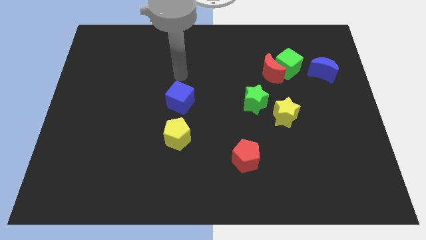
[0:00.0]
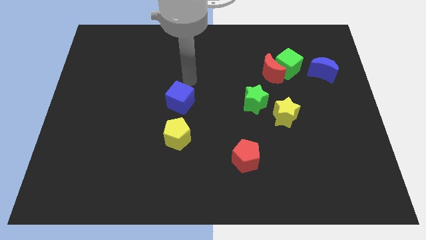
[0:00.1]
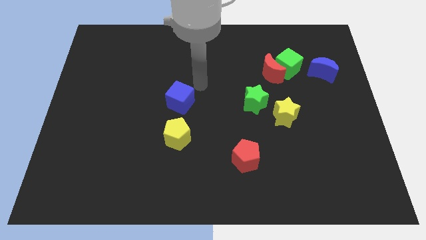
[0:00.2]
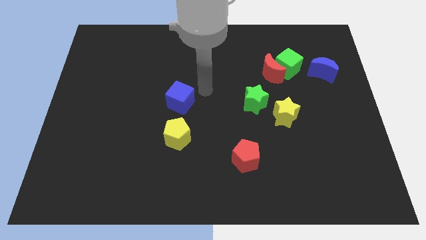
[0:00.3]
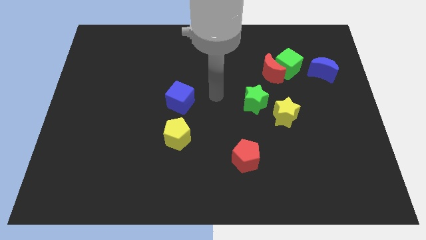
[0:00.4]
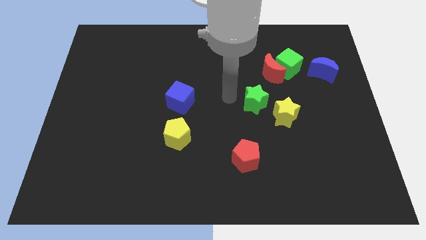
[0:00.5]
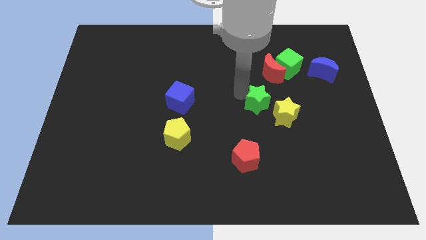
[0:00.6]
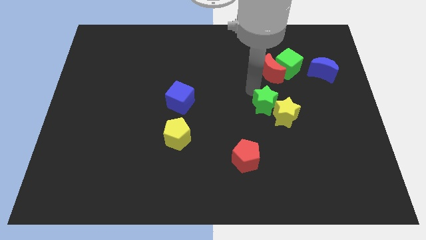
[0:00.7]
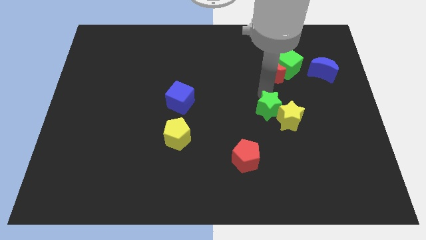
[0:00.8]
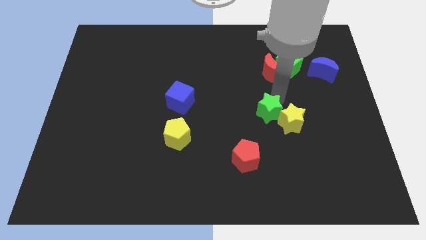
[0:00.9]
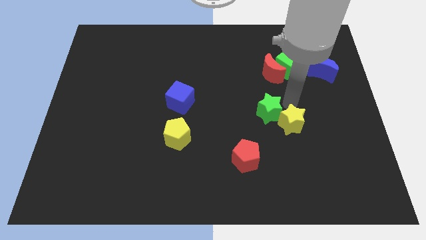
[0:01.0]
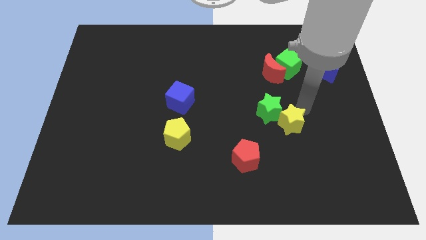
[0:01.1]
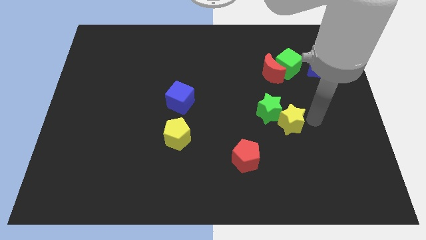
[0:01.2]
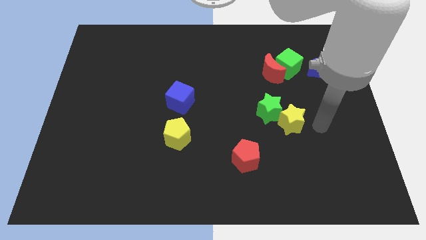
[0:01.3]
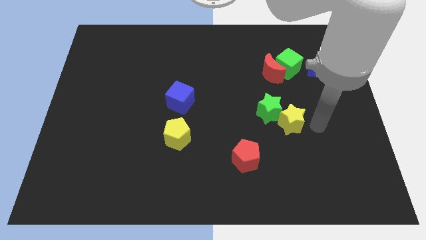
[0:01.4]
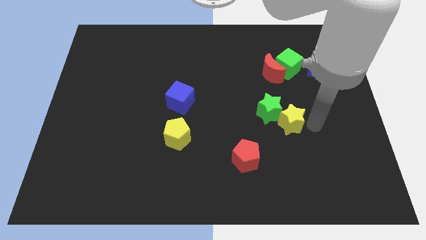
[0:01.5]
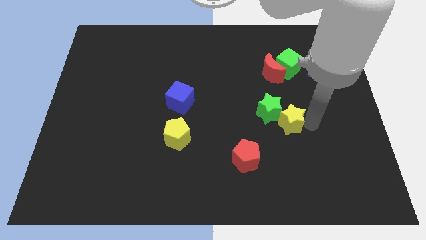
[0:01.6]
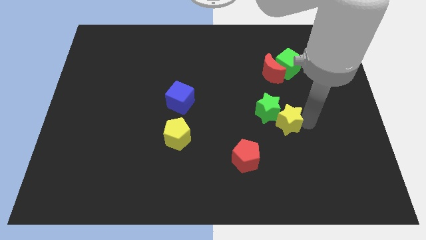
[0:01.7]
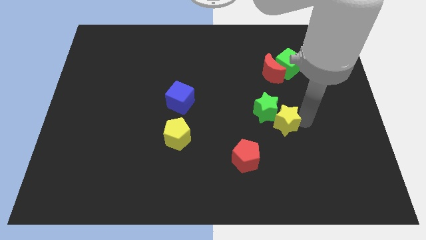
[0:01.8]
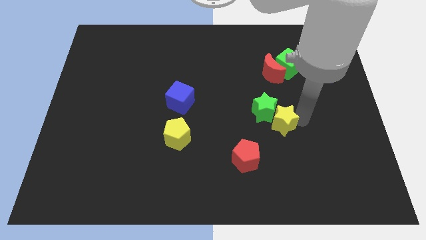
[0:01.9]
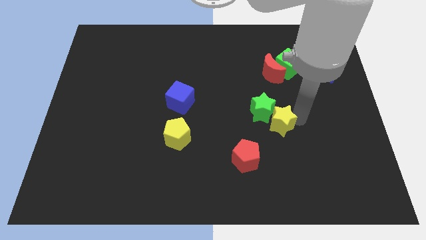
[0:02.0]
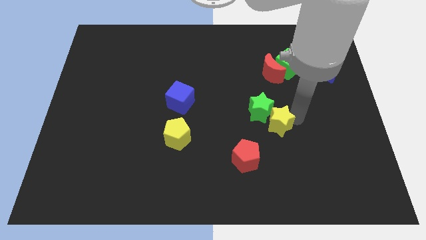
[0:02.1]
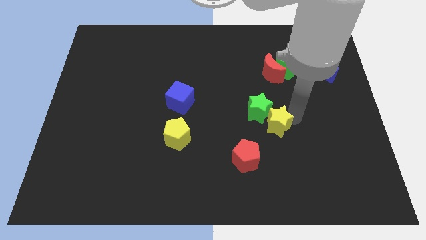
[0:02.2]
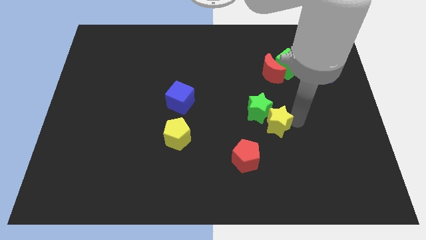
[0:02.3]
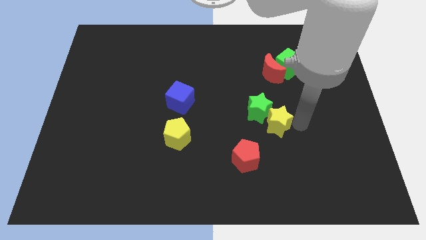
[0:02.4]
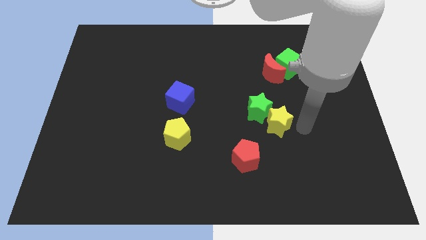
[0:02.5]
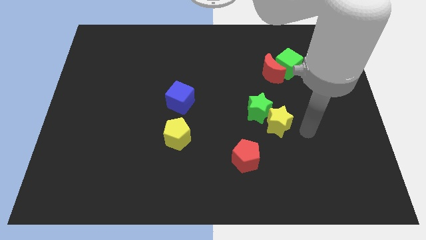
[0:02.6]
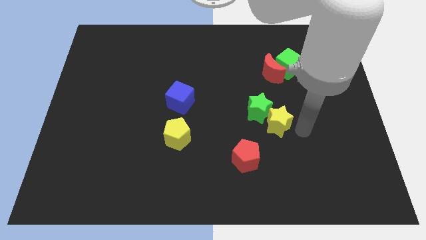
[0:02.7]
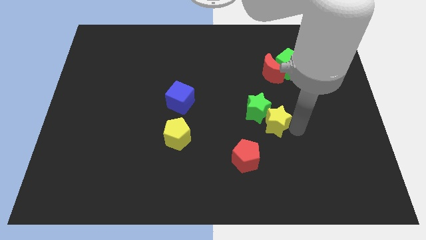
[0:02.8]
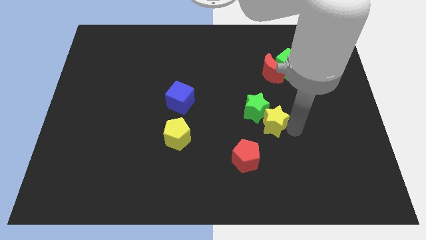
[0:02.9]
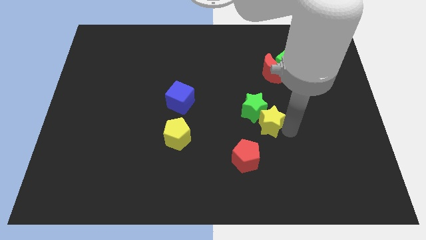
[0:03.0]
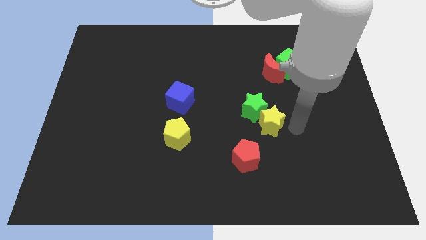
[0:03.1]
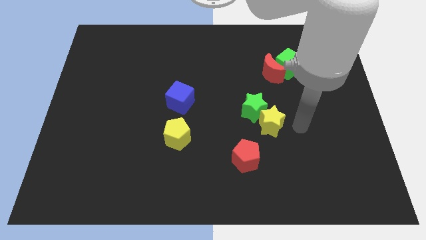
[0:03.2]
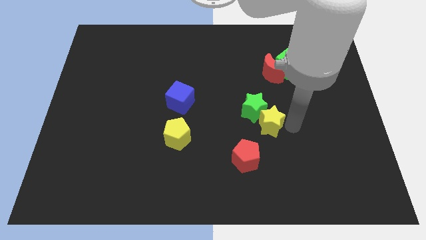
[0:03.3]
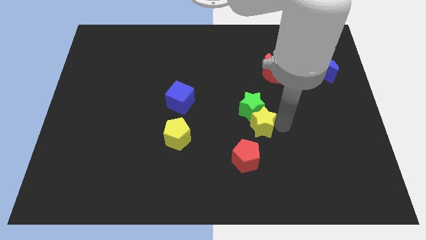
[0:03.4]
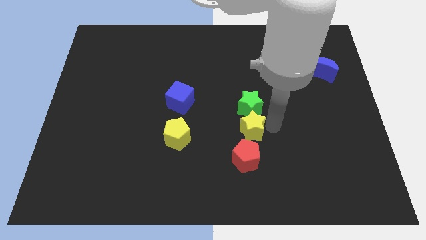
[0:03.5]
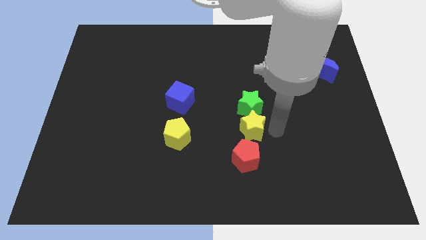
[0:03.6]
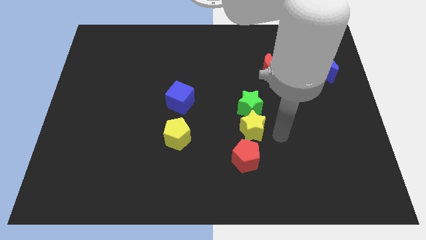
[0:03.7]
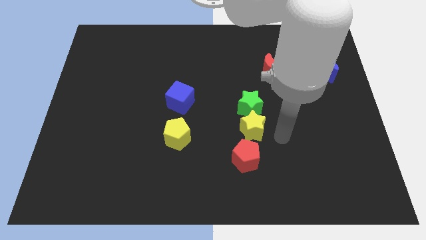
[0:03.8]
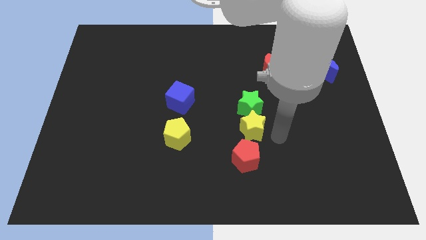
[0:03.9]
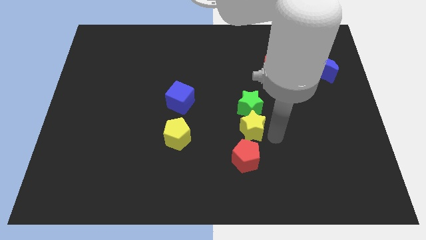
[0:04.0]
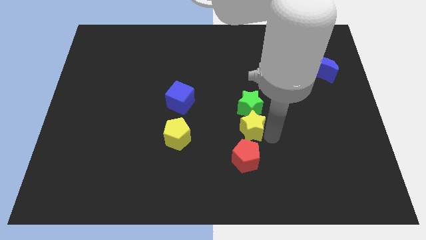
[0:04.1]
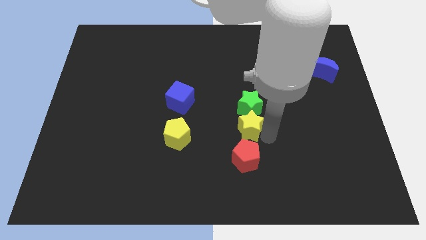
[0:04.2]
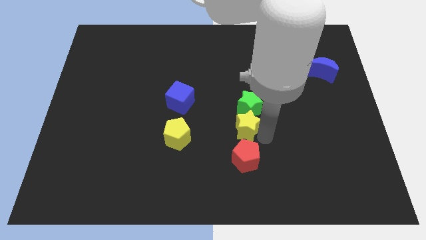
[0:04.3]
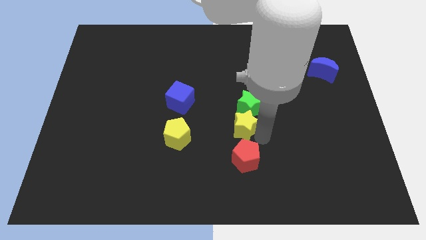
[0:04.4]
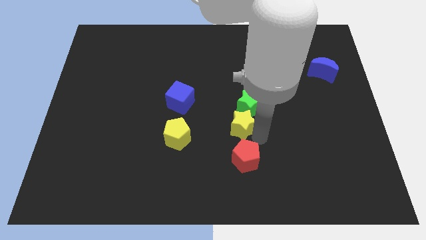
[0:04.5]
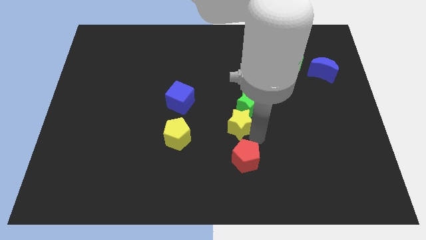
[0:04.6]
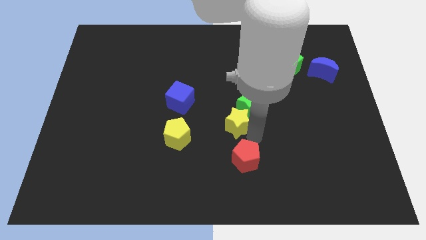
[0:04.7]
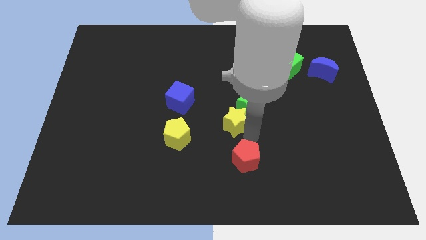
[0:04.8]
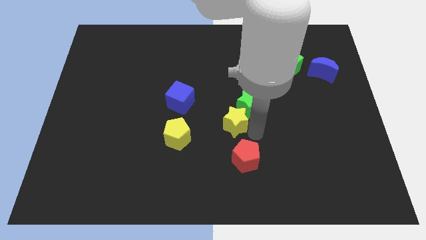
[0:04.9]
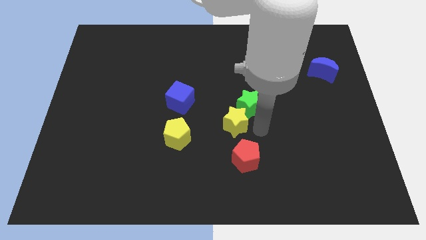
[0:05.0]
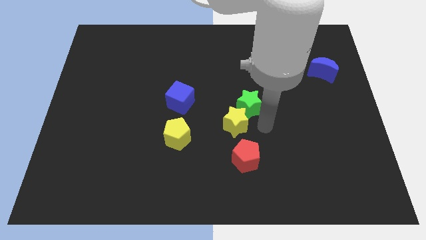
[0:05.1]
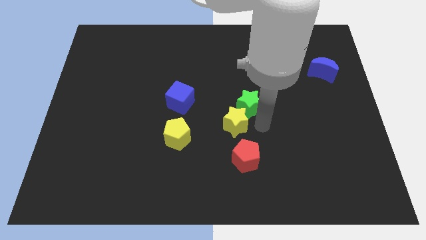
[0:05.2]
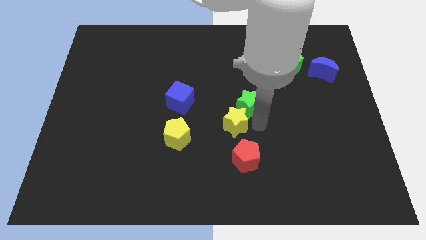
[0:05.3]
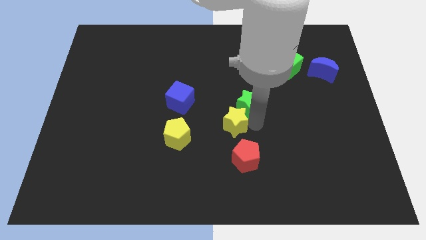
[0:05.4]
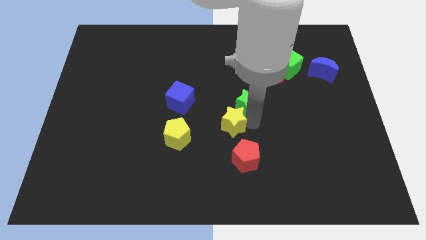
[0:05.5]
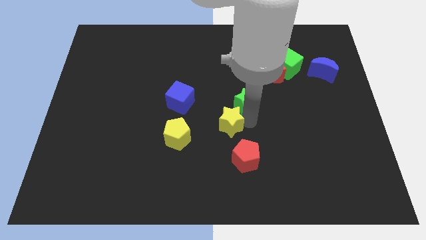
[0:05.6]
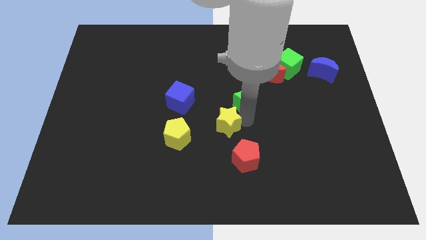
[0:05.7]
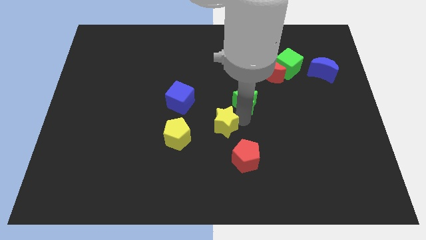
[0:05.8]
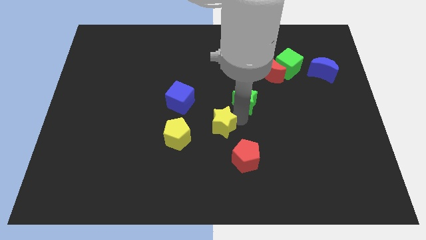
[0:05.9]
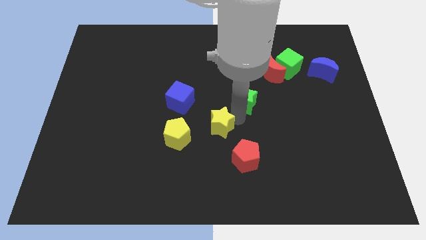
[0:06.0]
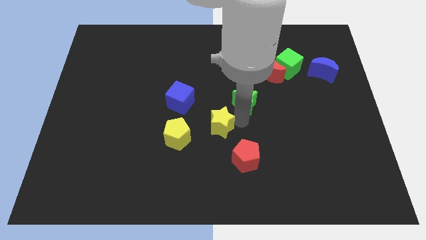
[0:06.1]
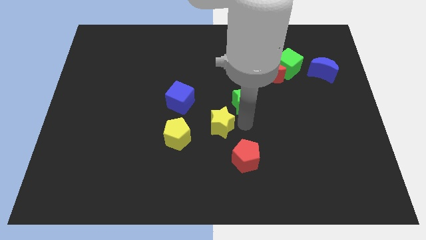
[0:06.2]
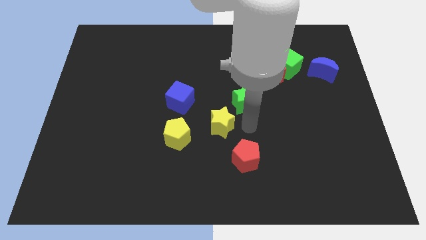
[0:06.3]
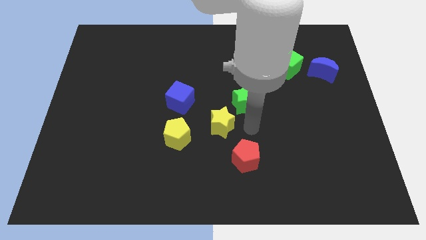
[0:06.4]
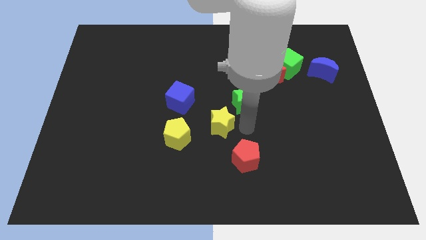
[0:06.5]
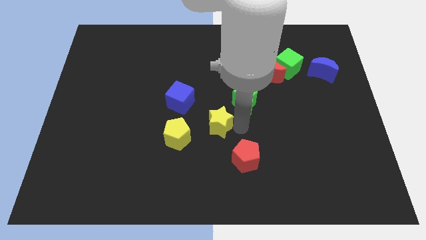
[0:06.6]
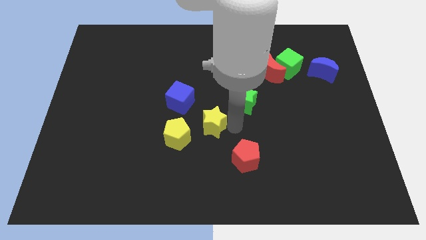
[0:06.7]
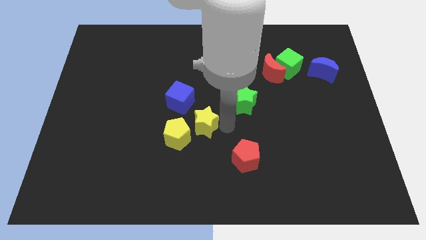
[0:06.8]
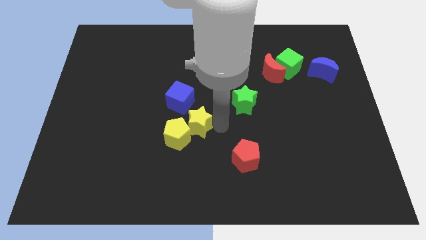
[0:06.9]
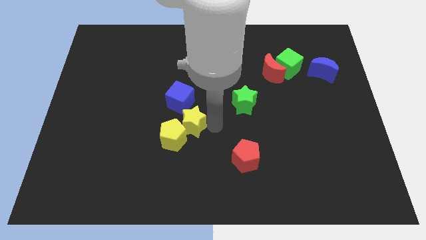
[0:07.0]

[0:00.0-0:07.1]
push the yellow star left

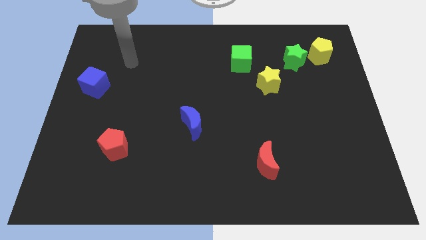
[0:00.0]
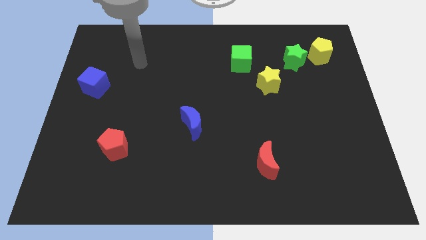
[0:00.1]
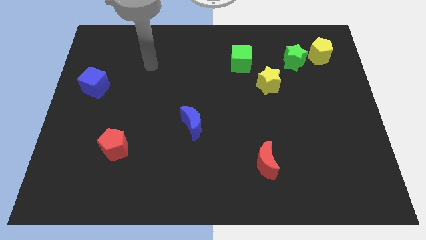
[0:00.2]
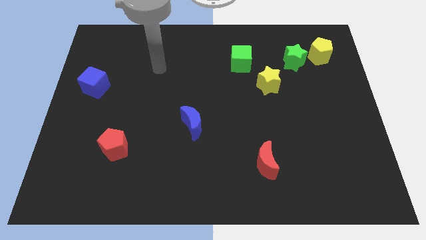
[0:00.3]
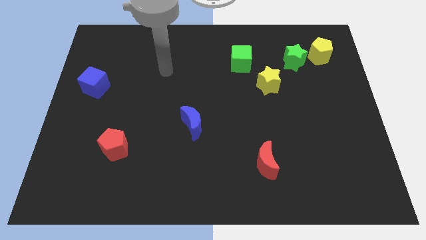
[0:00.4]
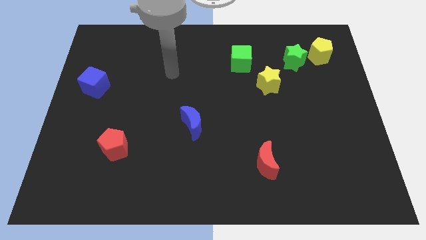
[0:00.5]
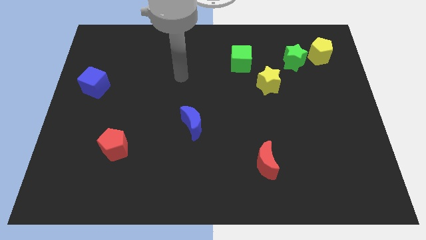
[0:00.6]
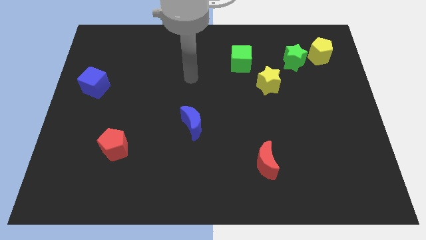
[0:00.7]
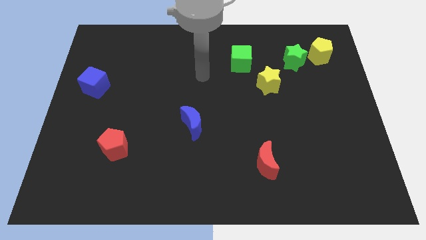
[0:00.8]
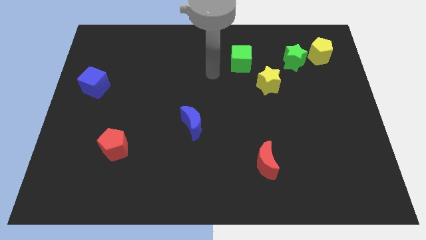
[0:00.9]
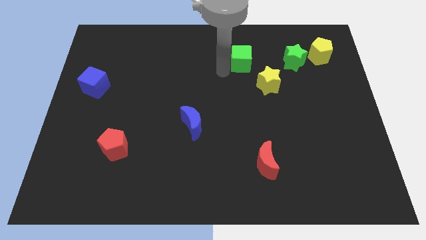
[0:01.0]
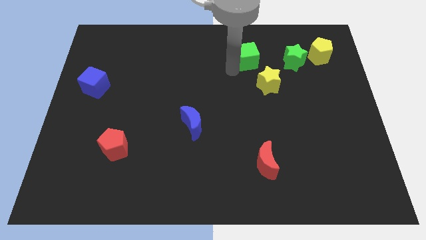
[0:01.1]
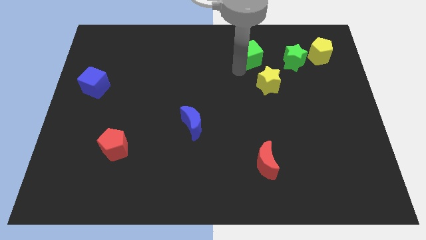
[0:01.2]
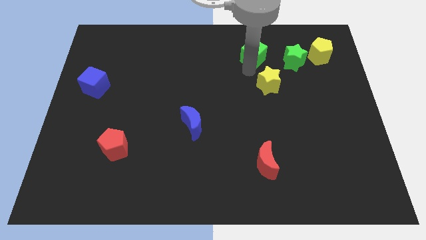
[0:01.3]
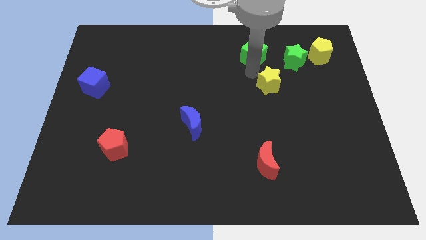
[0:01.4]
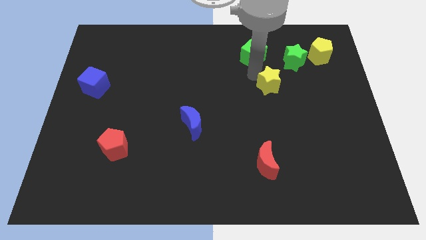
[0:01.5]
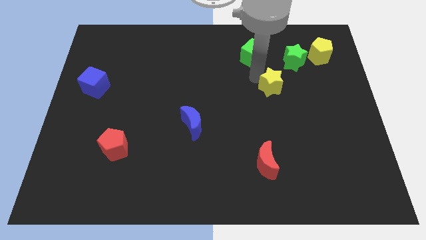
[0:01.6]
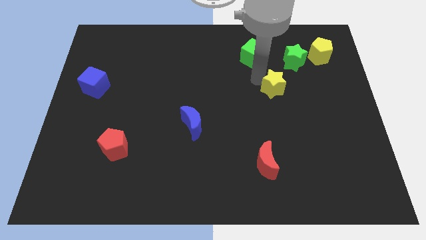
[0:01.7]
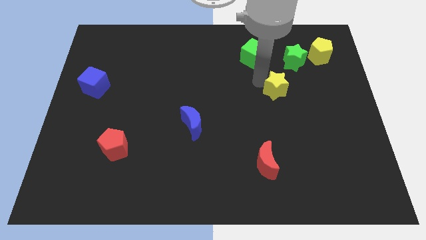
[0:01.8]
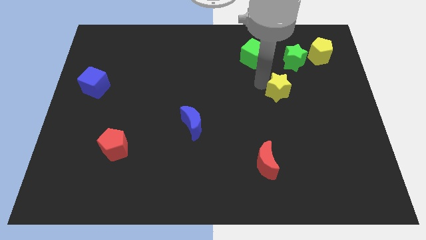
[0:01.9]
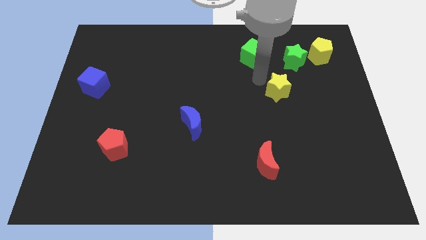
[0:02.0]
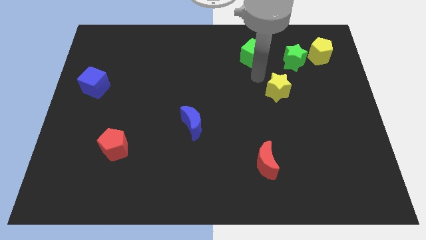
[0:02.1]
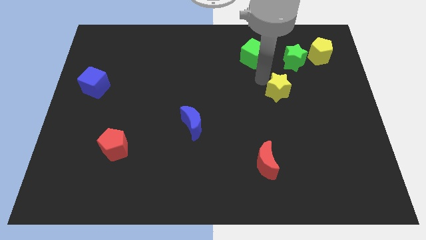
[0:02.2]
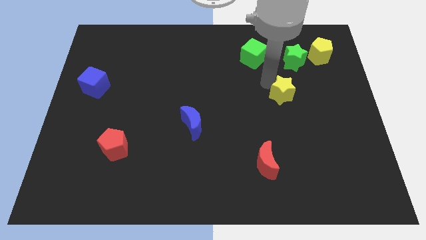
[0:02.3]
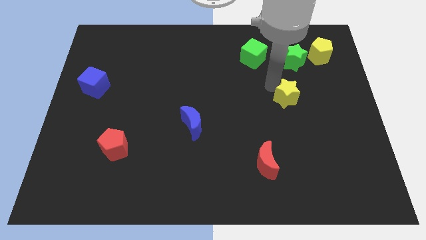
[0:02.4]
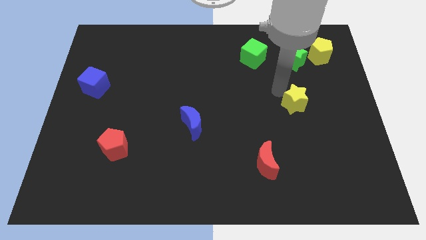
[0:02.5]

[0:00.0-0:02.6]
slide the yellow star a bit down and right
